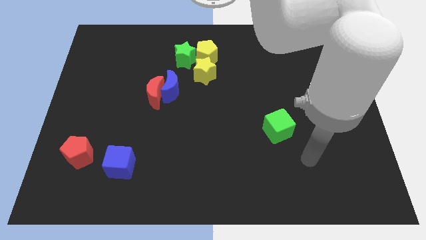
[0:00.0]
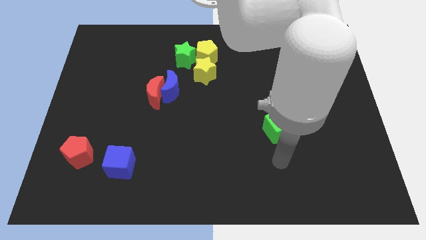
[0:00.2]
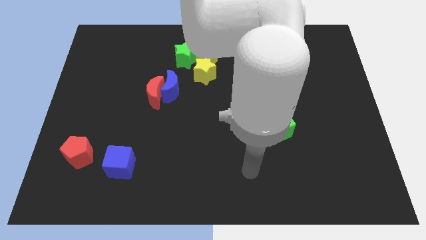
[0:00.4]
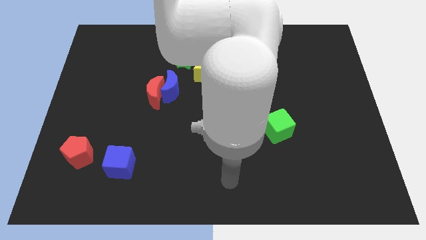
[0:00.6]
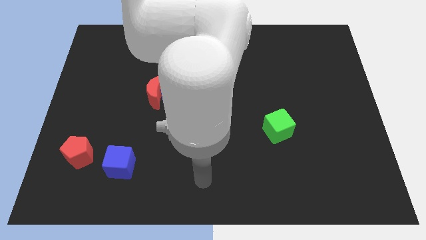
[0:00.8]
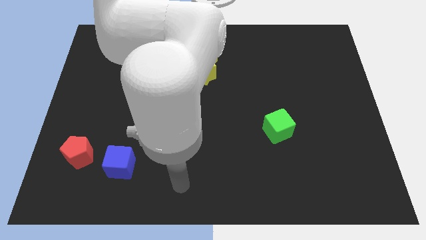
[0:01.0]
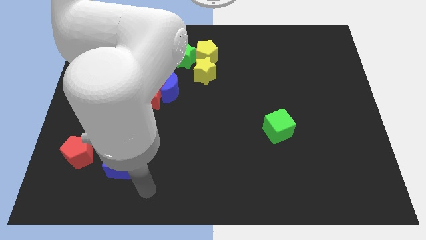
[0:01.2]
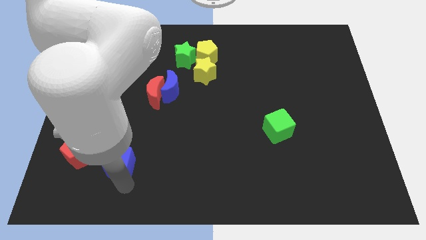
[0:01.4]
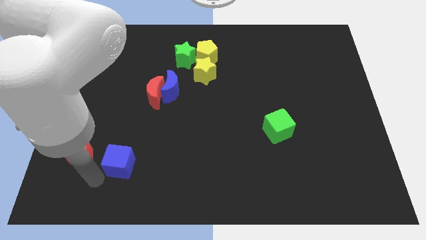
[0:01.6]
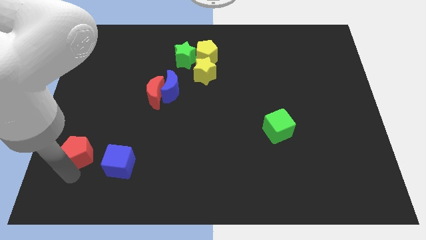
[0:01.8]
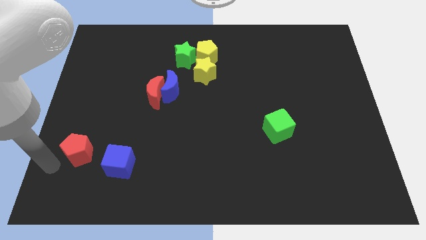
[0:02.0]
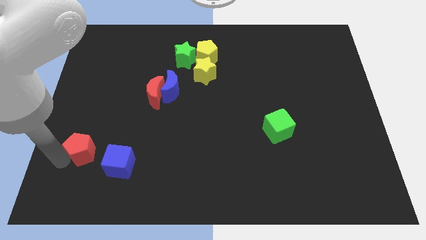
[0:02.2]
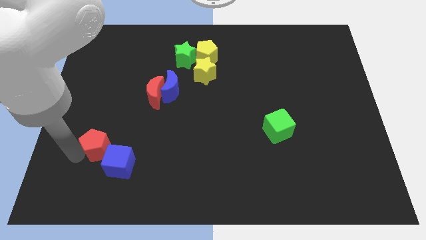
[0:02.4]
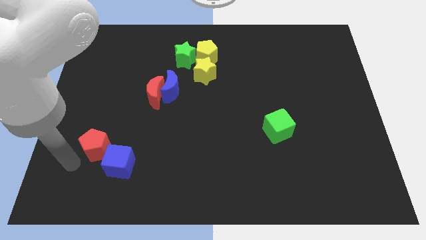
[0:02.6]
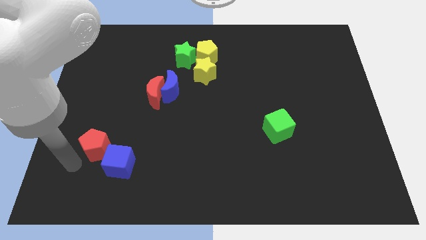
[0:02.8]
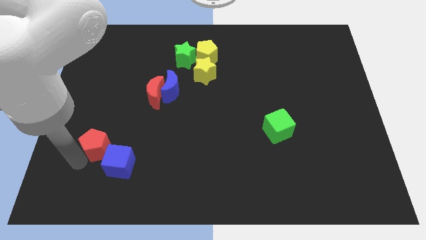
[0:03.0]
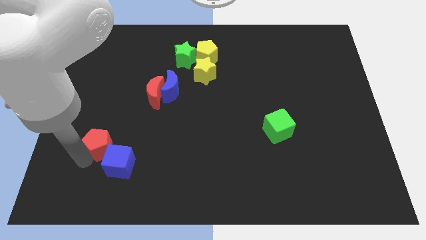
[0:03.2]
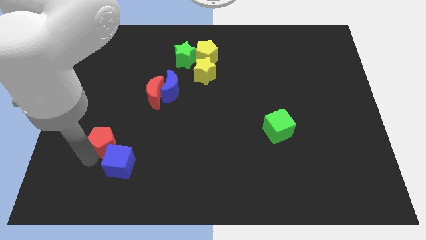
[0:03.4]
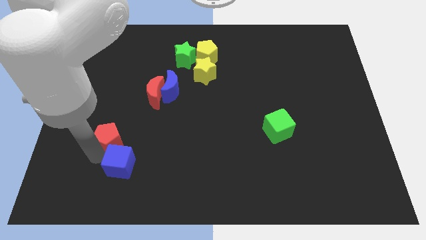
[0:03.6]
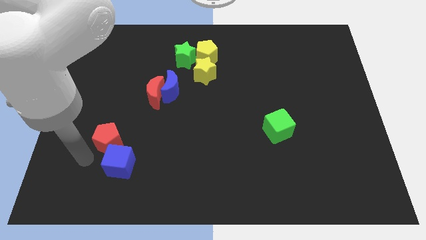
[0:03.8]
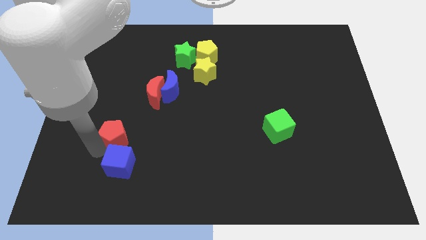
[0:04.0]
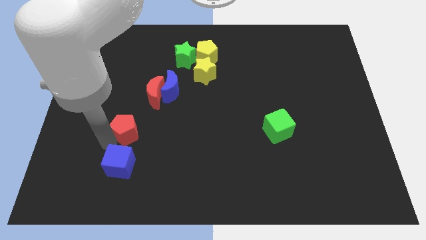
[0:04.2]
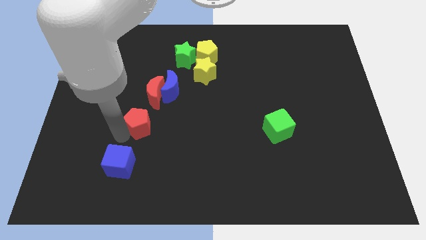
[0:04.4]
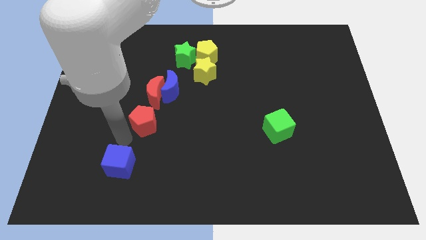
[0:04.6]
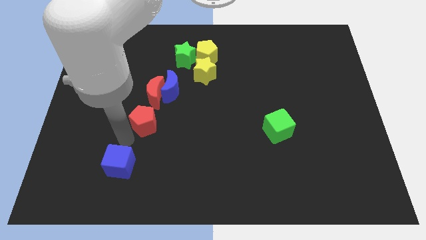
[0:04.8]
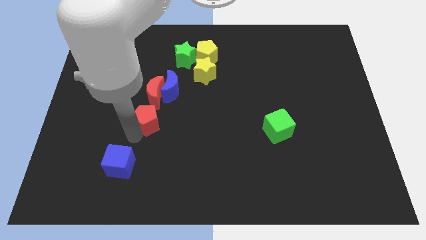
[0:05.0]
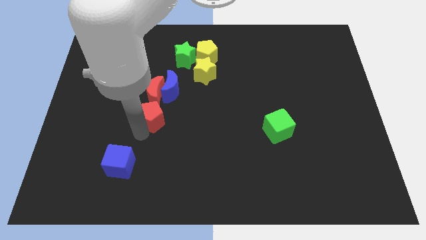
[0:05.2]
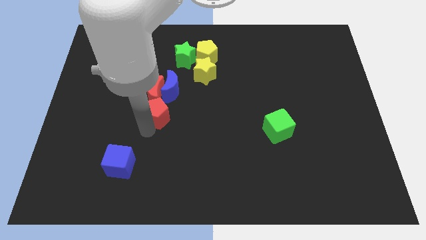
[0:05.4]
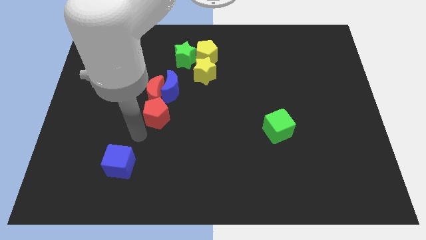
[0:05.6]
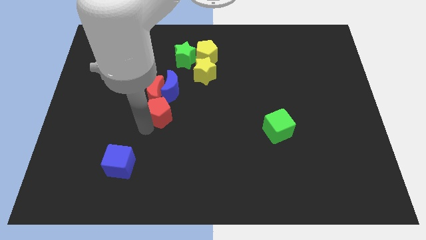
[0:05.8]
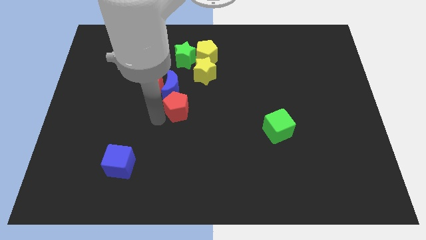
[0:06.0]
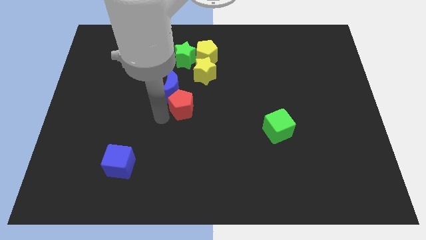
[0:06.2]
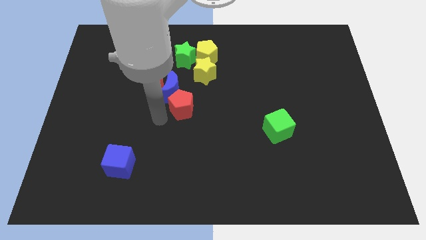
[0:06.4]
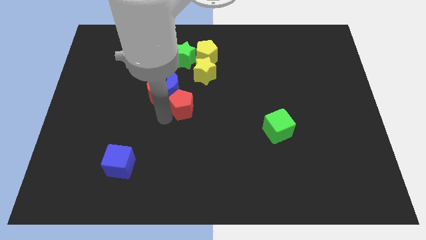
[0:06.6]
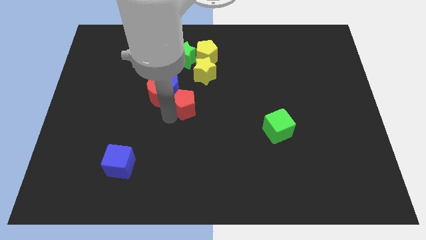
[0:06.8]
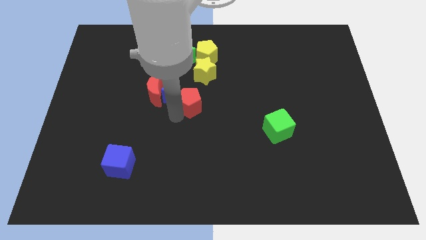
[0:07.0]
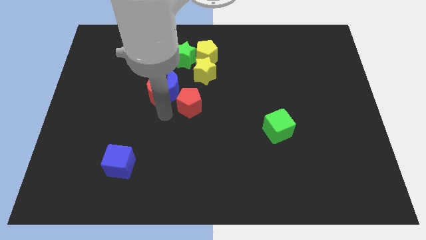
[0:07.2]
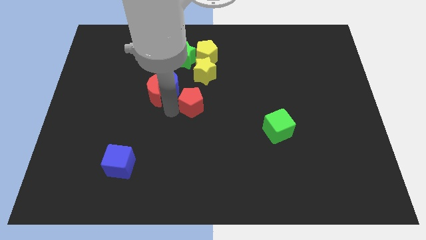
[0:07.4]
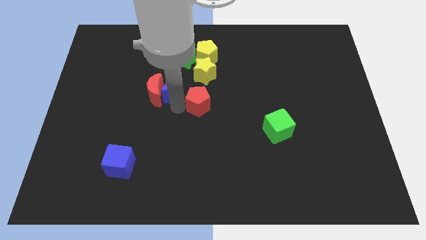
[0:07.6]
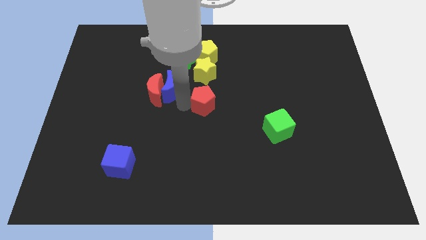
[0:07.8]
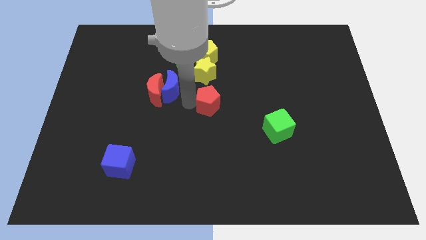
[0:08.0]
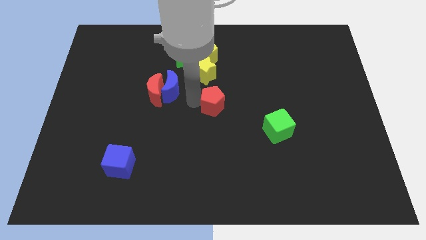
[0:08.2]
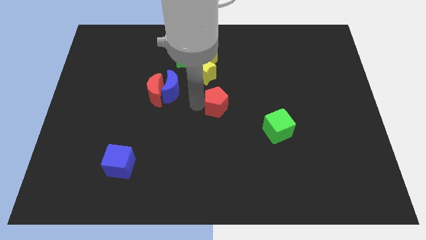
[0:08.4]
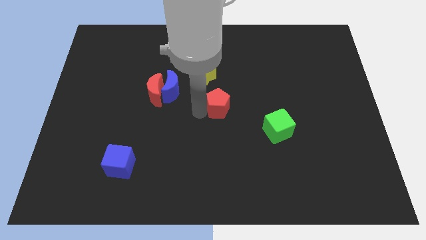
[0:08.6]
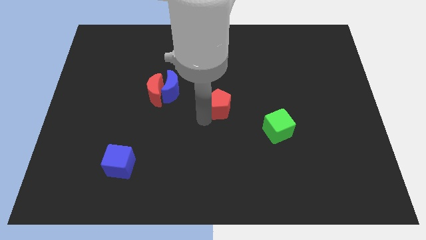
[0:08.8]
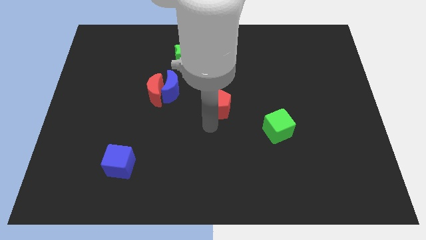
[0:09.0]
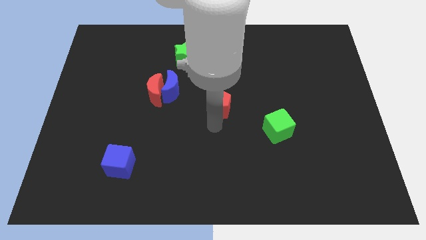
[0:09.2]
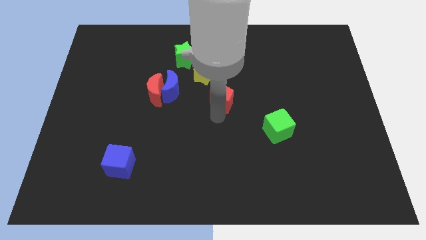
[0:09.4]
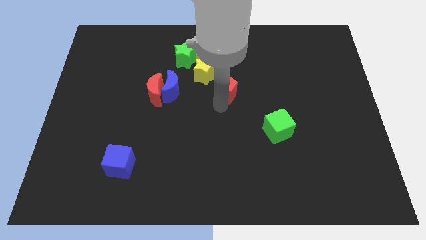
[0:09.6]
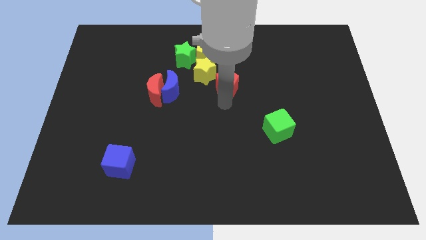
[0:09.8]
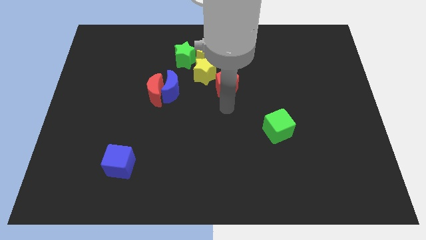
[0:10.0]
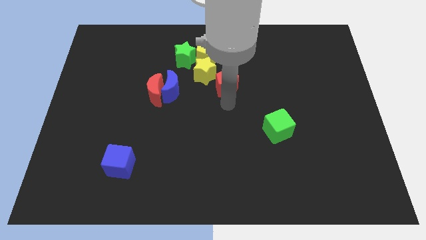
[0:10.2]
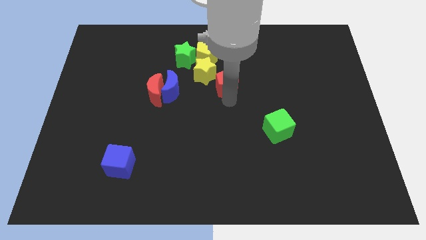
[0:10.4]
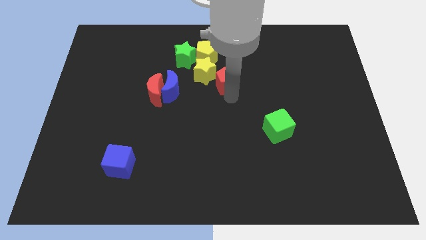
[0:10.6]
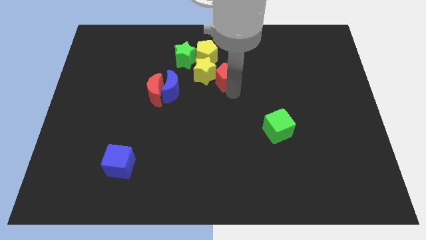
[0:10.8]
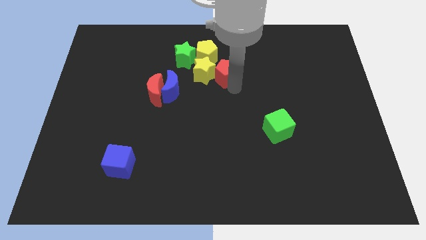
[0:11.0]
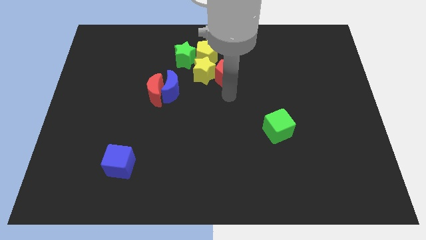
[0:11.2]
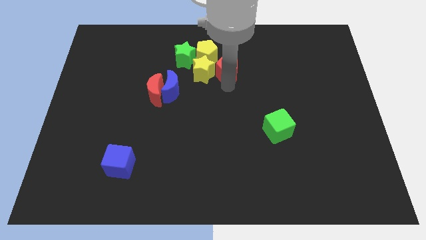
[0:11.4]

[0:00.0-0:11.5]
push the red pentagon just right of the green star
